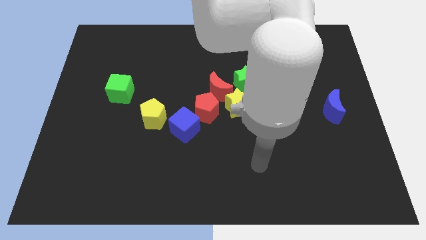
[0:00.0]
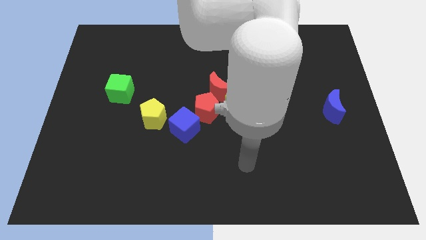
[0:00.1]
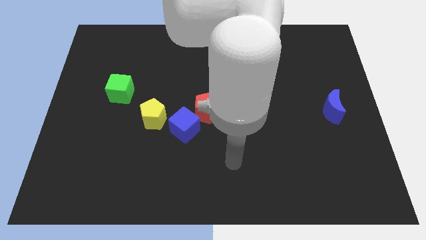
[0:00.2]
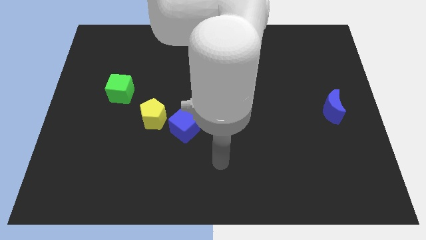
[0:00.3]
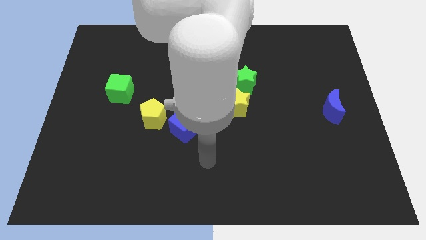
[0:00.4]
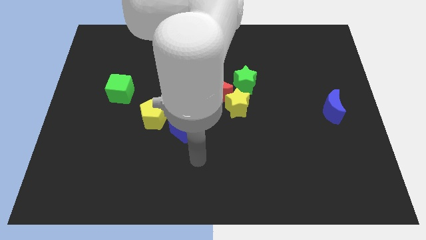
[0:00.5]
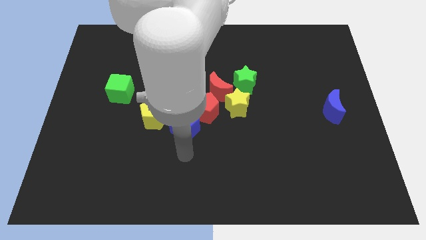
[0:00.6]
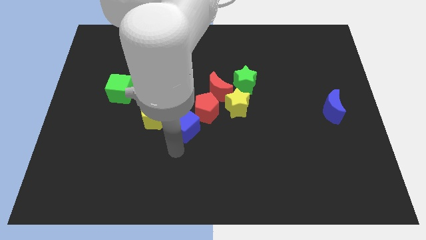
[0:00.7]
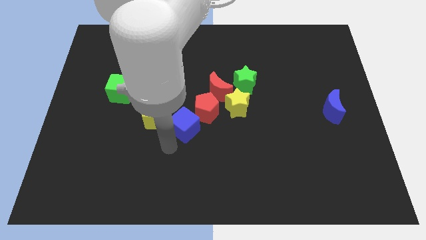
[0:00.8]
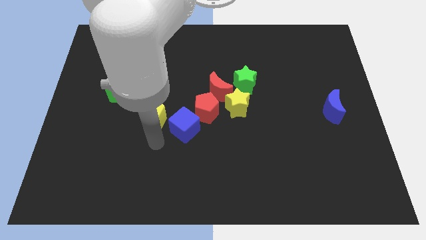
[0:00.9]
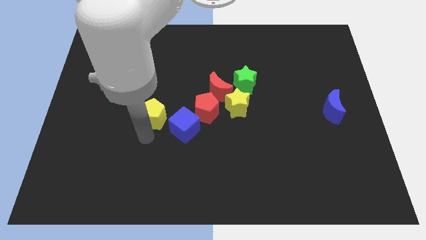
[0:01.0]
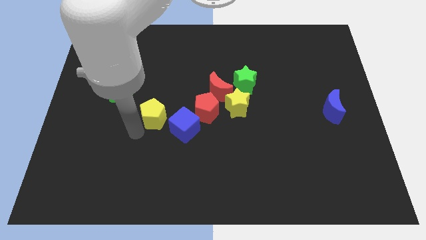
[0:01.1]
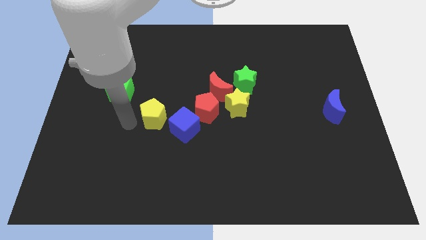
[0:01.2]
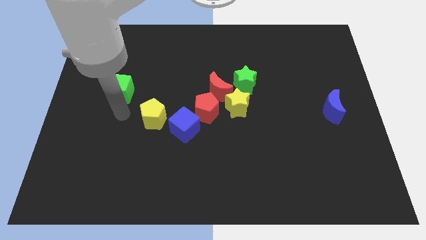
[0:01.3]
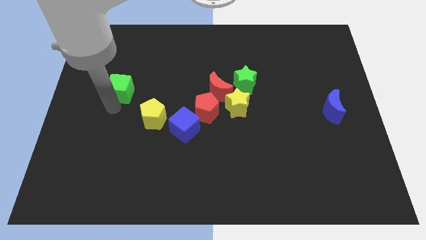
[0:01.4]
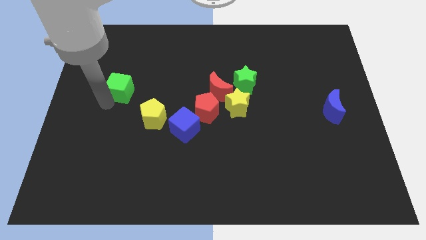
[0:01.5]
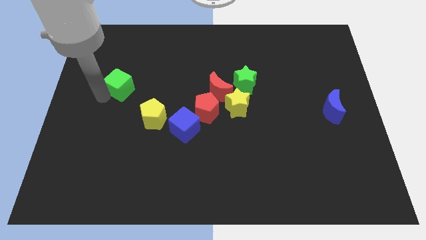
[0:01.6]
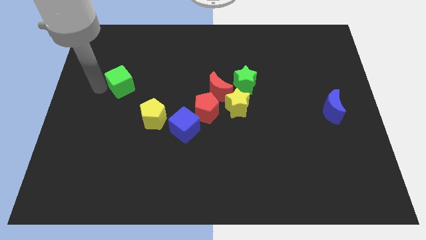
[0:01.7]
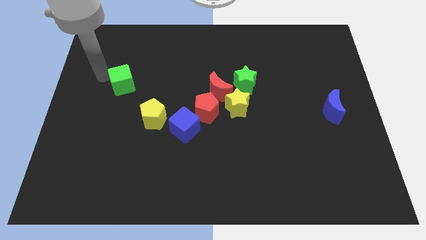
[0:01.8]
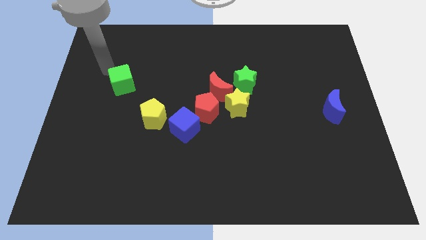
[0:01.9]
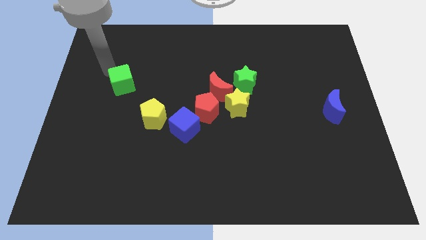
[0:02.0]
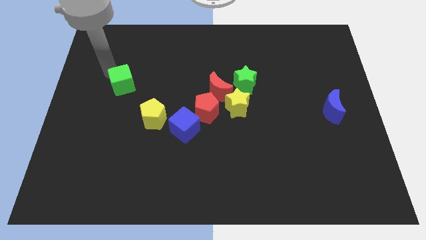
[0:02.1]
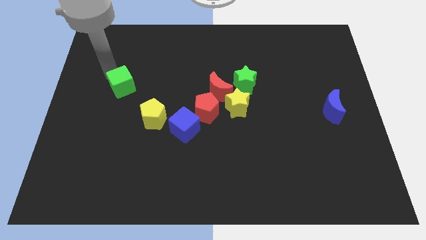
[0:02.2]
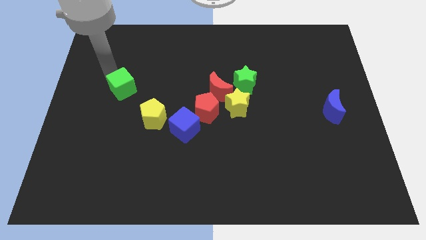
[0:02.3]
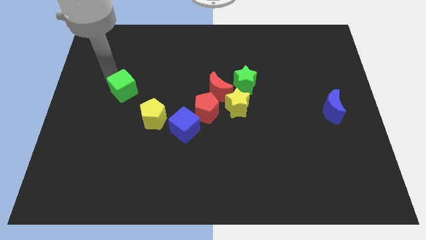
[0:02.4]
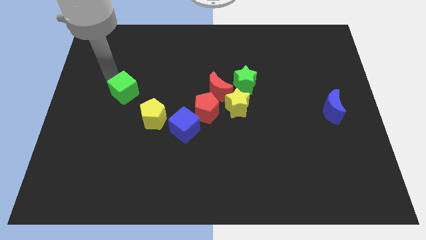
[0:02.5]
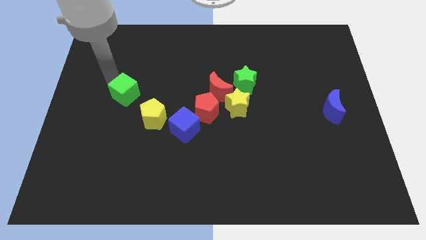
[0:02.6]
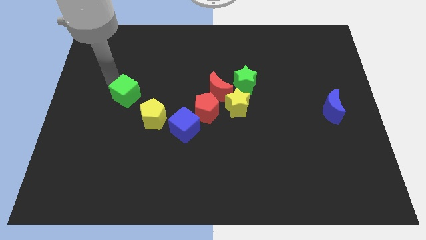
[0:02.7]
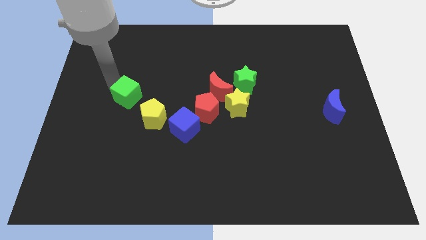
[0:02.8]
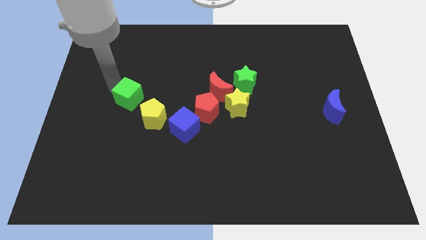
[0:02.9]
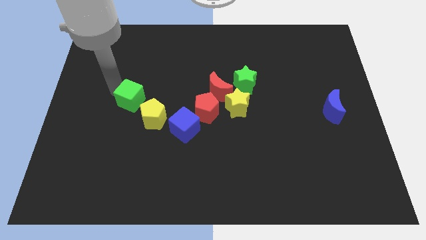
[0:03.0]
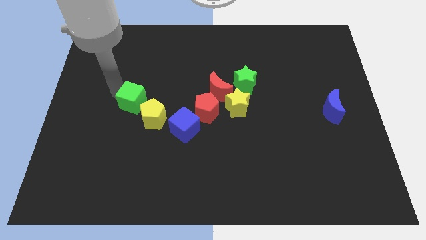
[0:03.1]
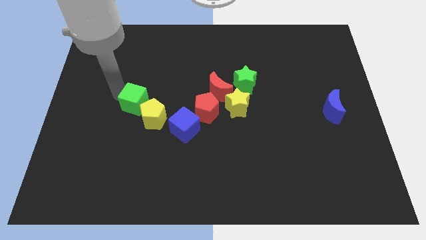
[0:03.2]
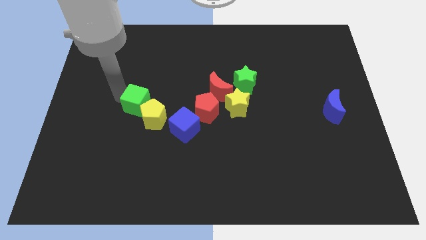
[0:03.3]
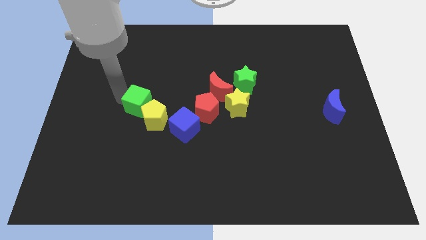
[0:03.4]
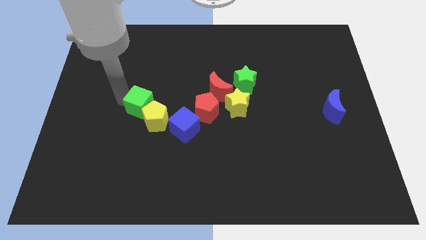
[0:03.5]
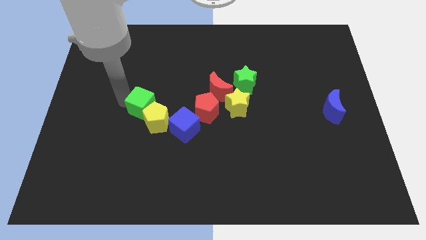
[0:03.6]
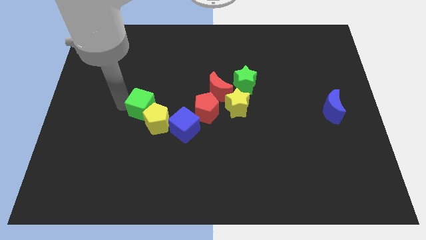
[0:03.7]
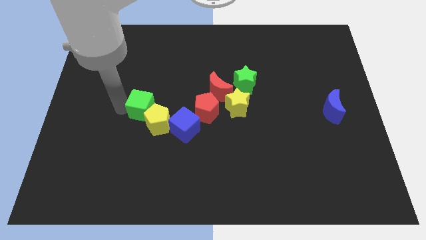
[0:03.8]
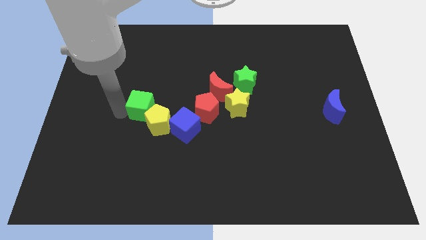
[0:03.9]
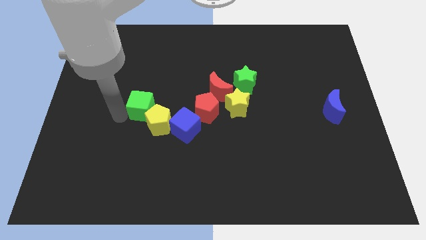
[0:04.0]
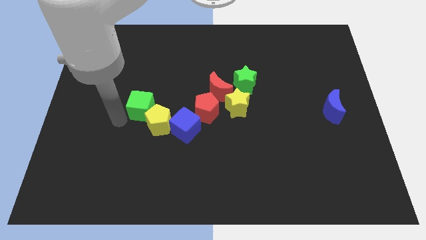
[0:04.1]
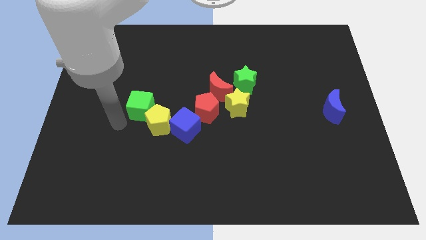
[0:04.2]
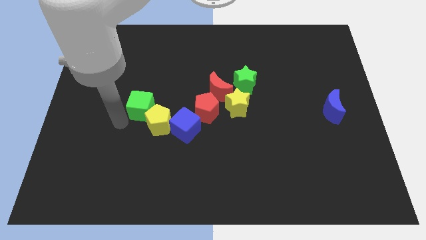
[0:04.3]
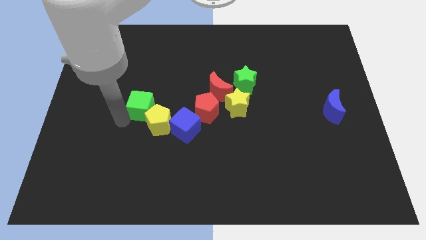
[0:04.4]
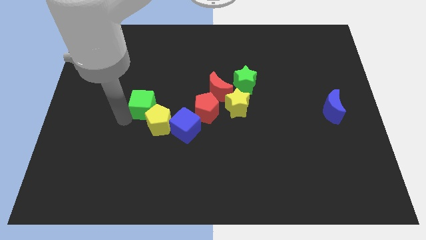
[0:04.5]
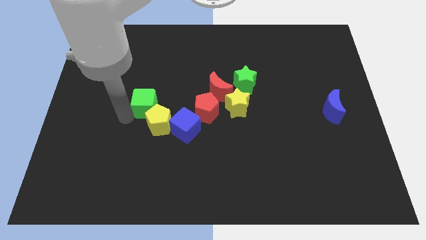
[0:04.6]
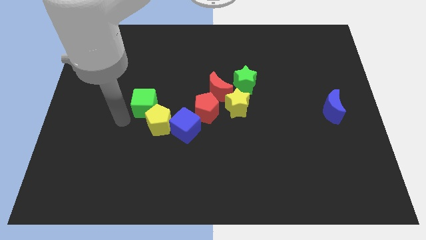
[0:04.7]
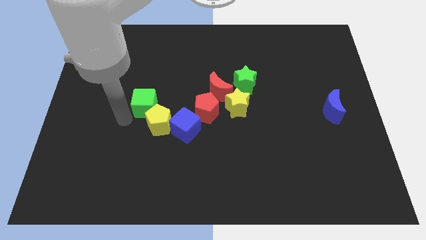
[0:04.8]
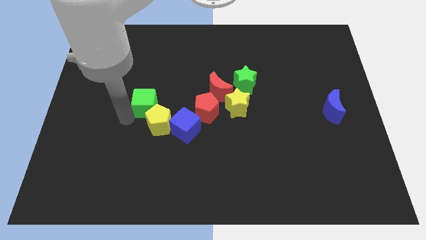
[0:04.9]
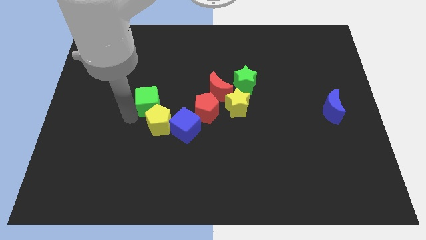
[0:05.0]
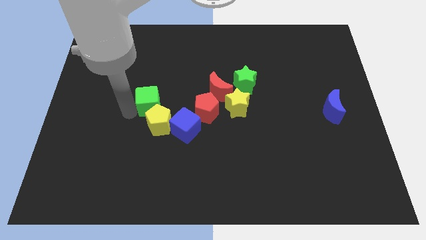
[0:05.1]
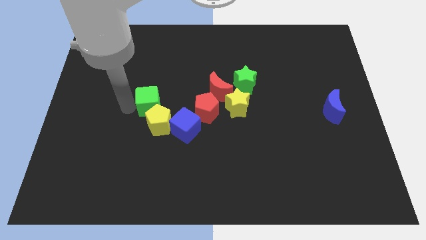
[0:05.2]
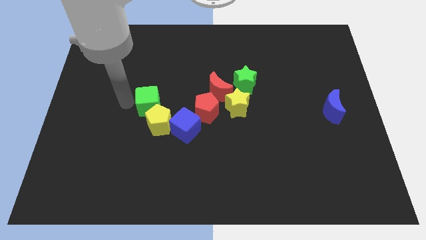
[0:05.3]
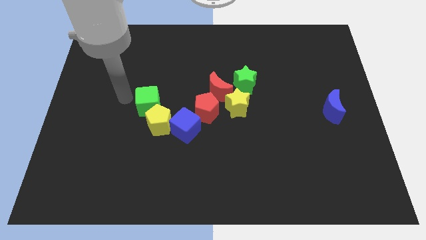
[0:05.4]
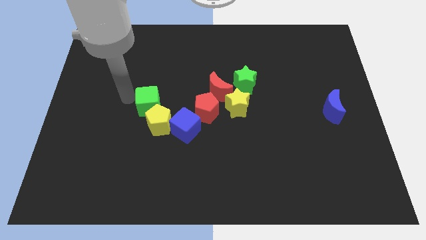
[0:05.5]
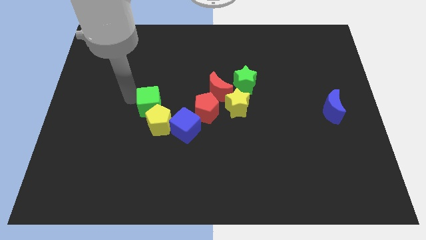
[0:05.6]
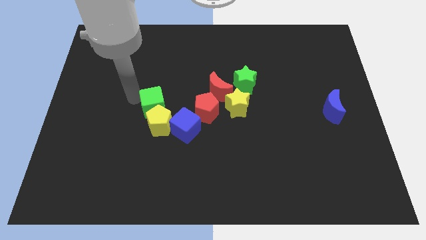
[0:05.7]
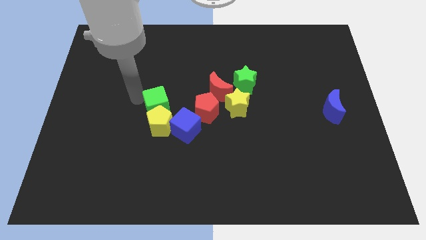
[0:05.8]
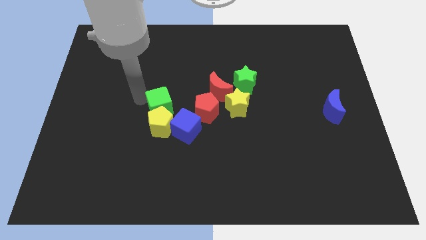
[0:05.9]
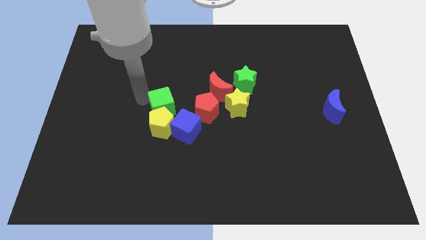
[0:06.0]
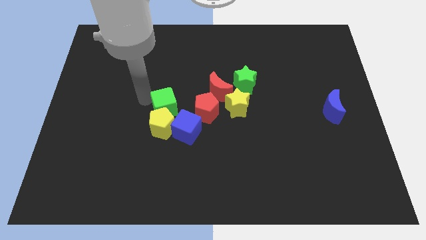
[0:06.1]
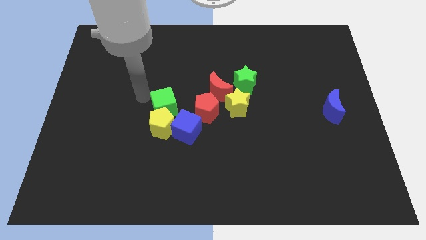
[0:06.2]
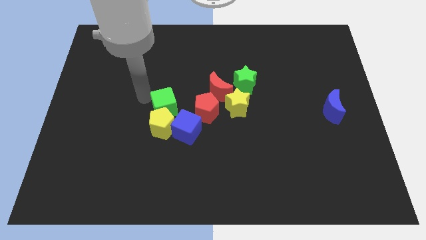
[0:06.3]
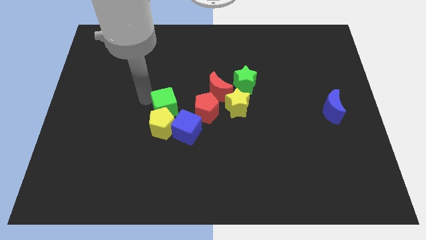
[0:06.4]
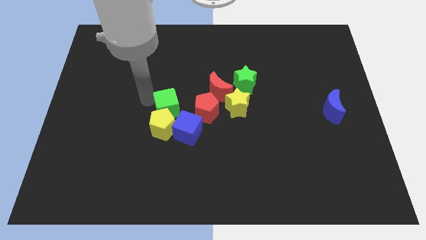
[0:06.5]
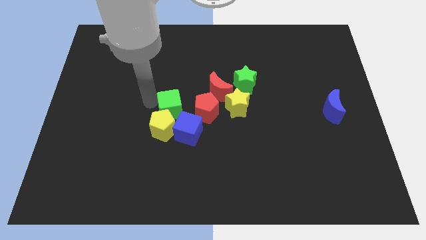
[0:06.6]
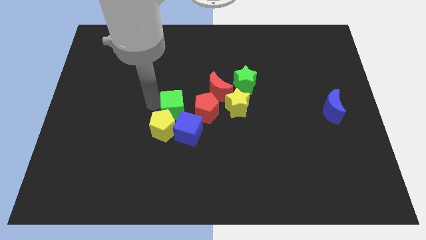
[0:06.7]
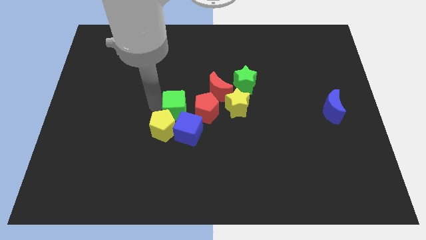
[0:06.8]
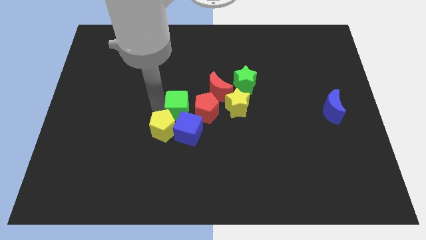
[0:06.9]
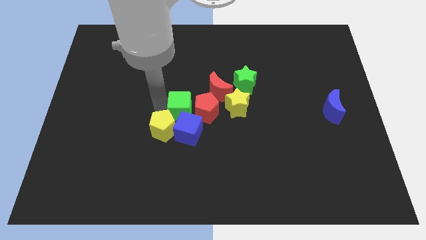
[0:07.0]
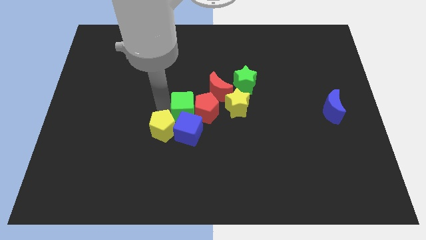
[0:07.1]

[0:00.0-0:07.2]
put the green cube close to the blue cube
